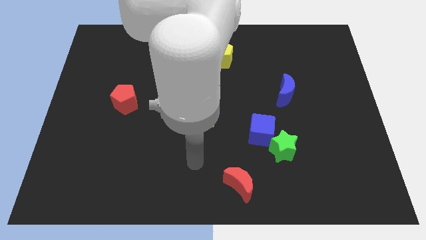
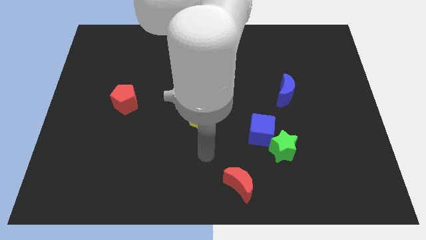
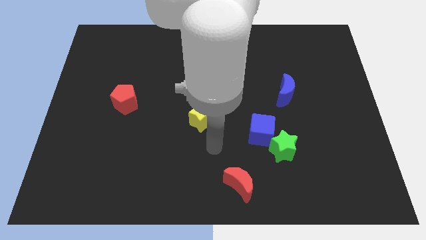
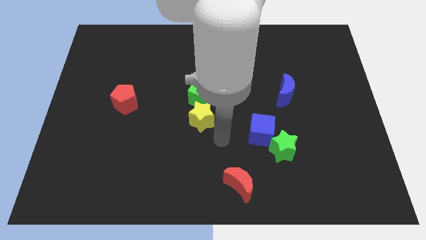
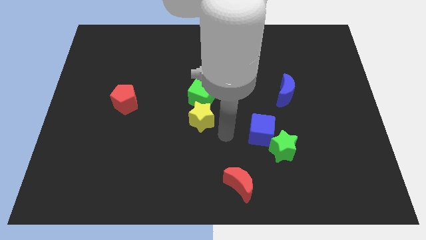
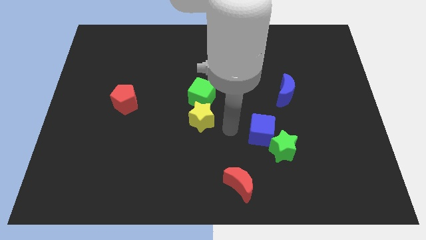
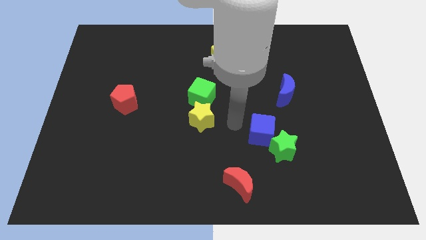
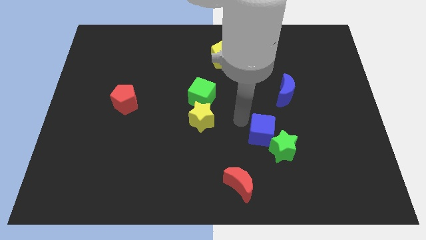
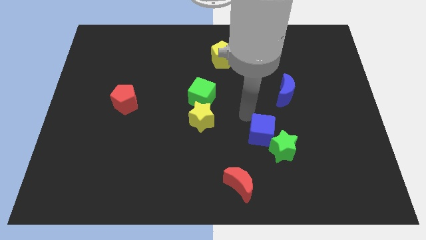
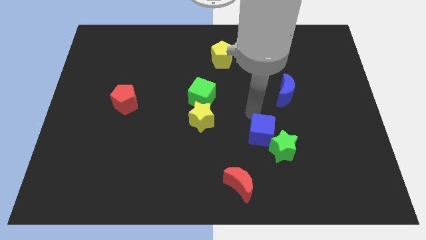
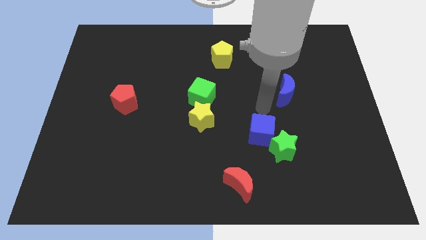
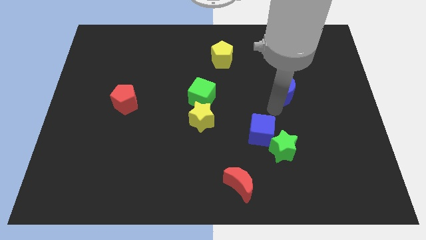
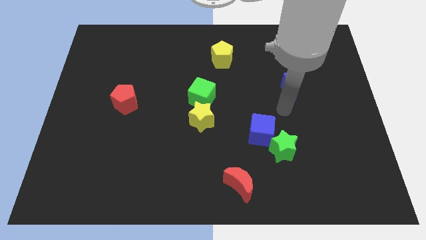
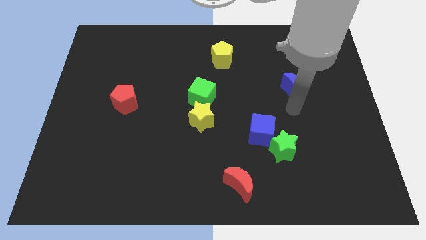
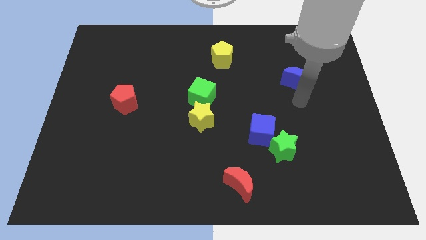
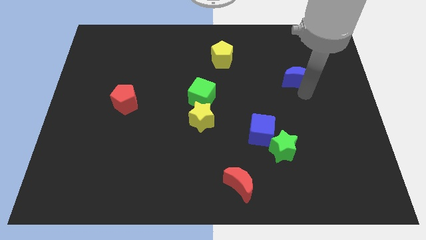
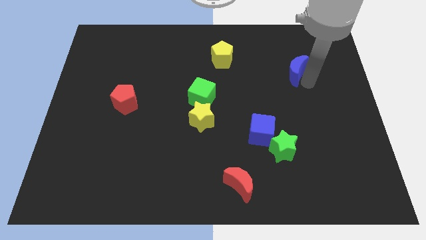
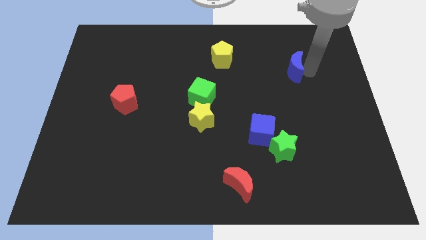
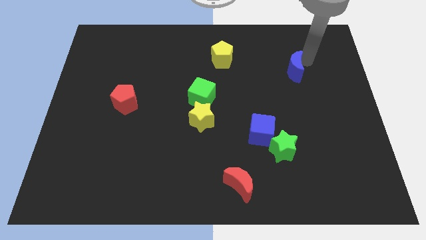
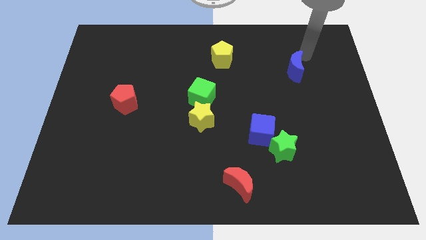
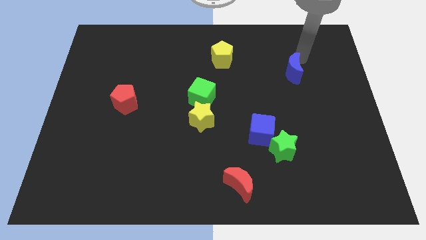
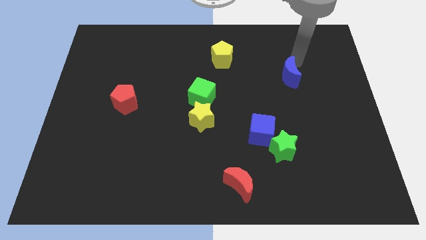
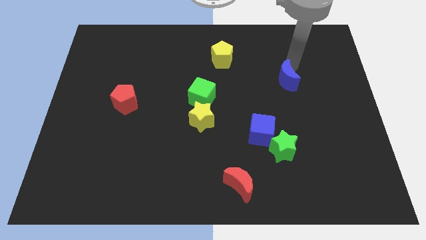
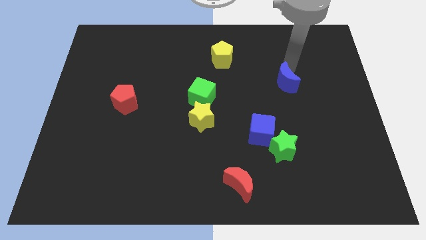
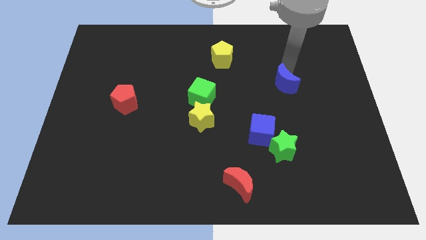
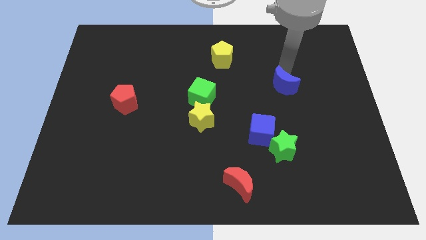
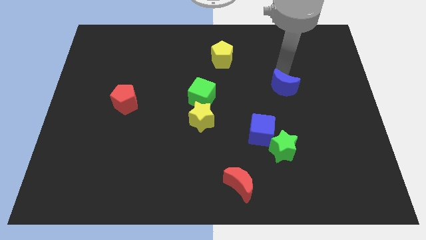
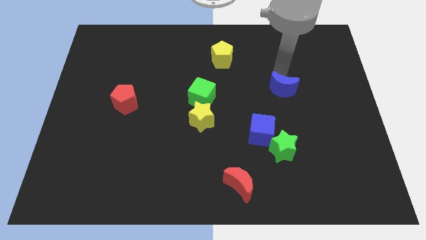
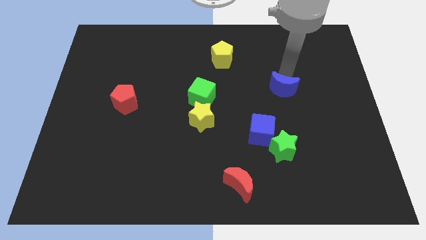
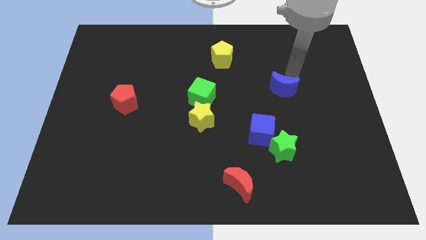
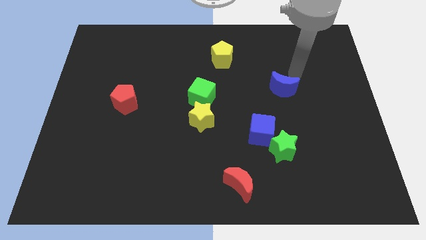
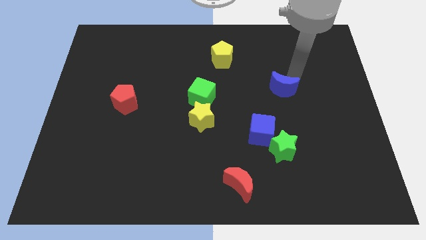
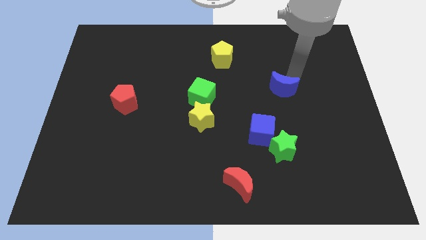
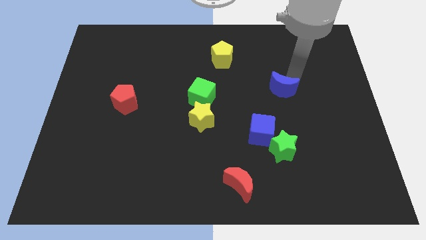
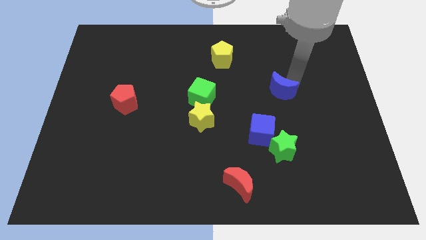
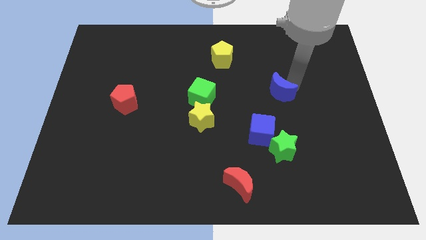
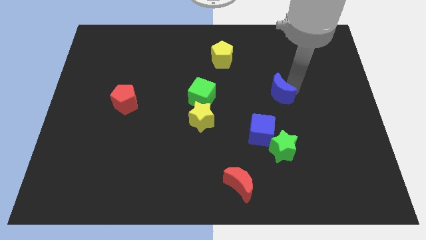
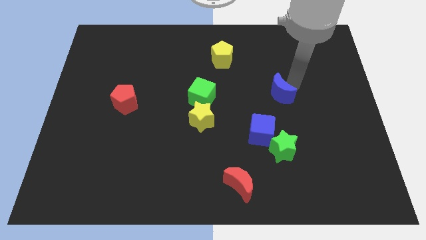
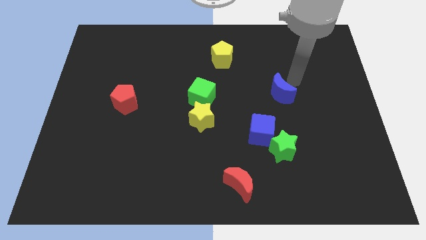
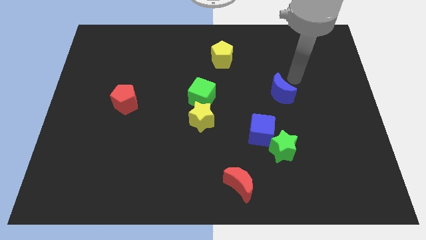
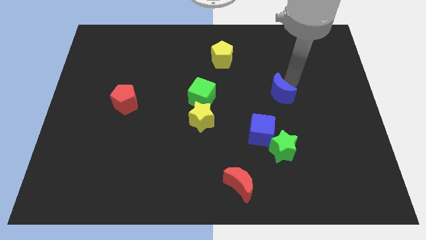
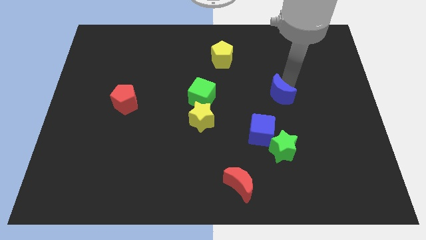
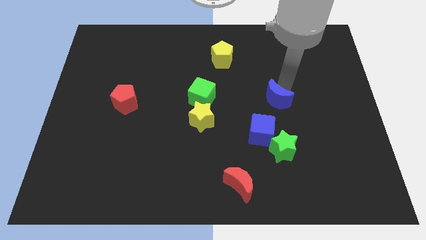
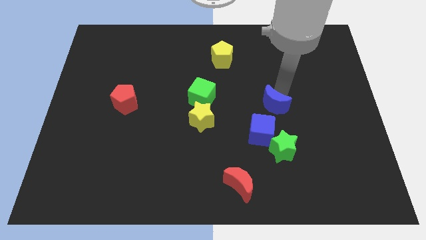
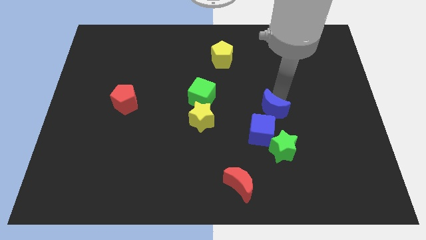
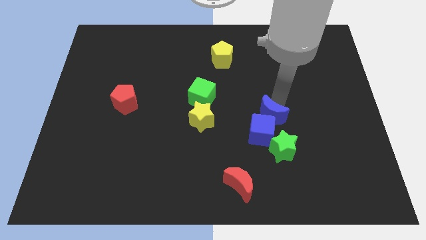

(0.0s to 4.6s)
push the blue moon down and then to the left somewhat

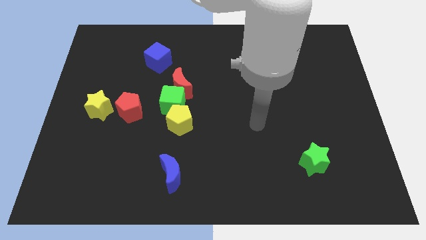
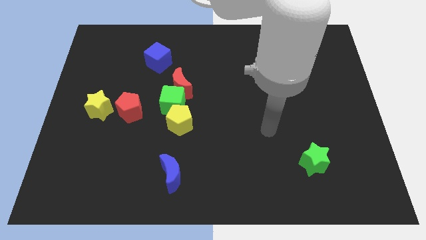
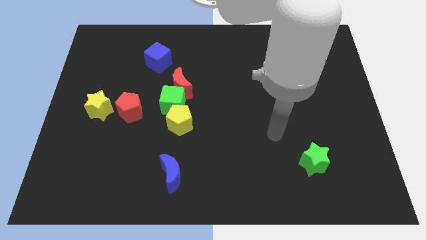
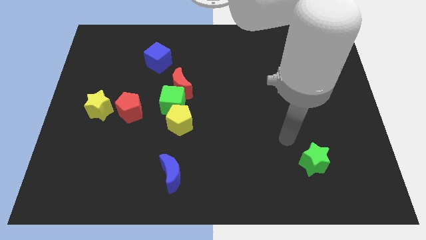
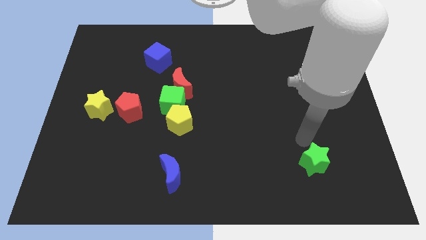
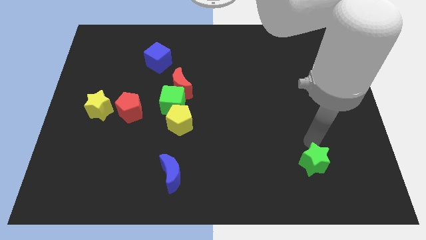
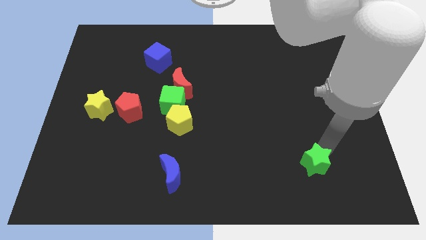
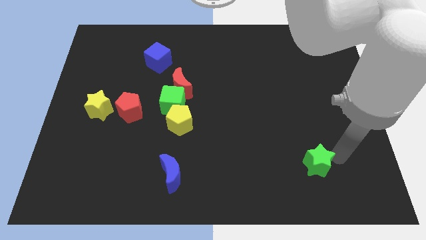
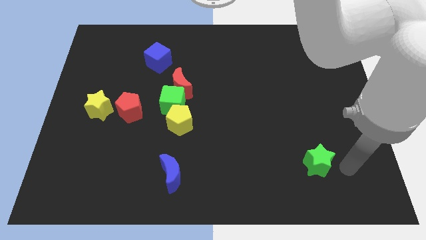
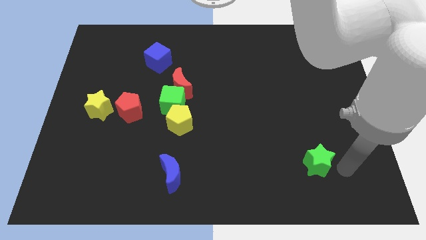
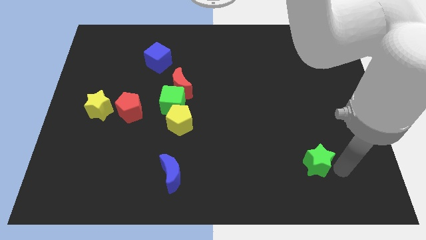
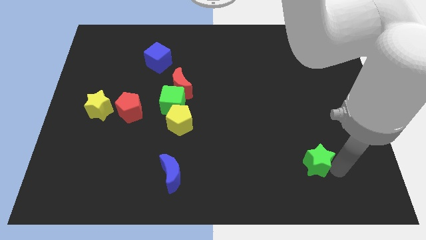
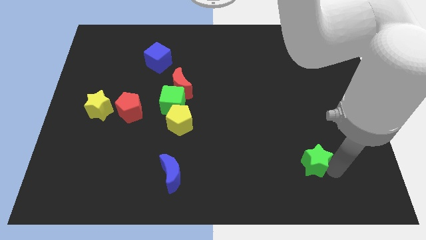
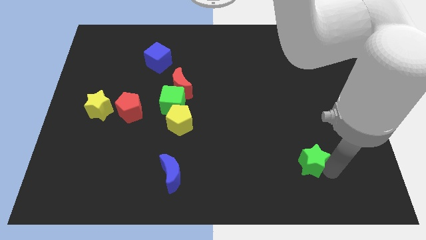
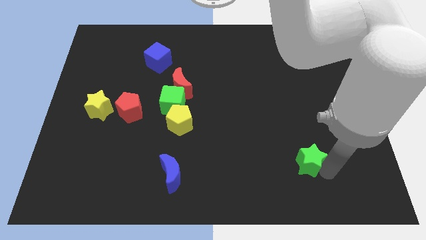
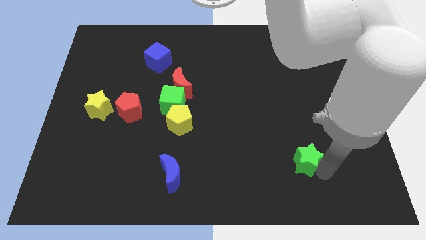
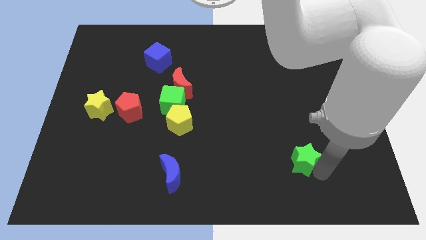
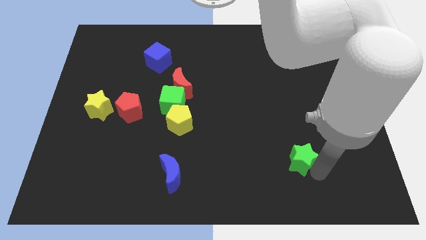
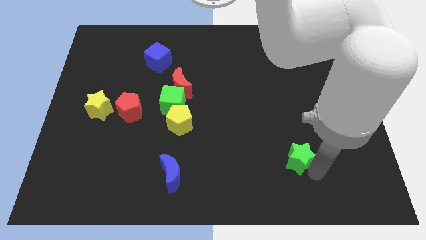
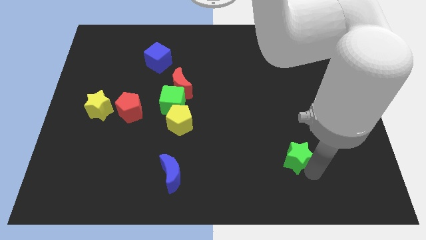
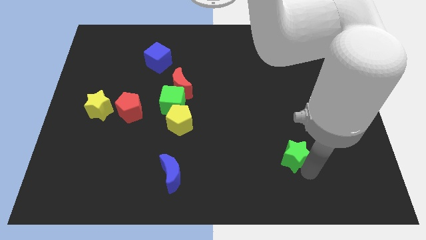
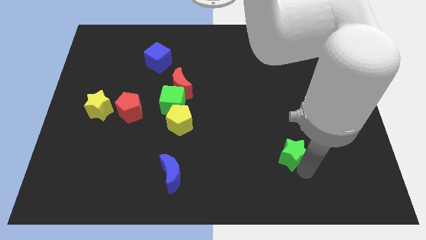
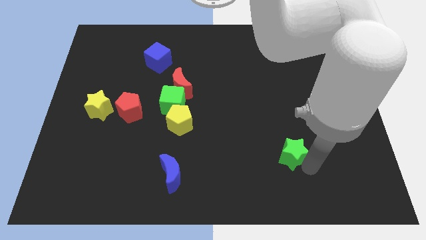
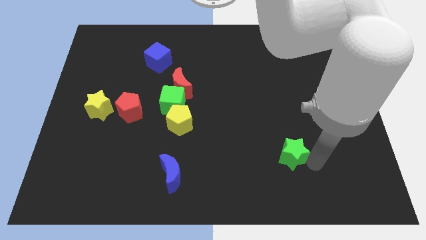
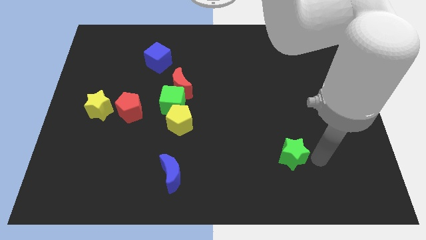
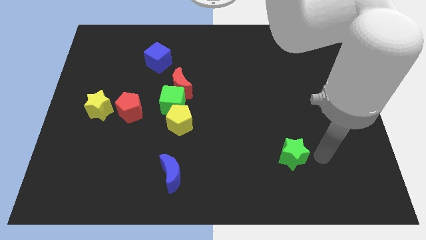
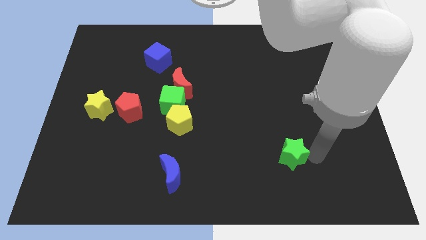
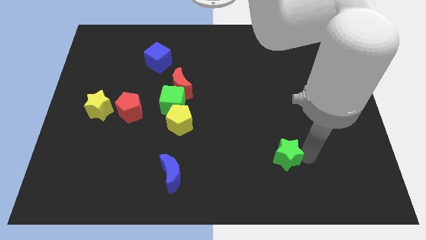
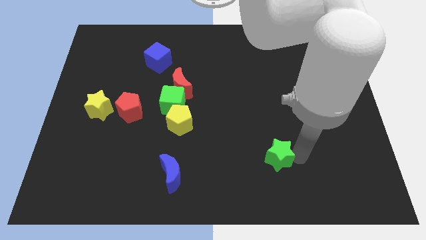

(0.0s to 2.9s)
push the green star to the left a little

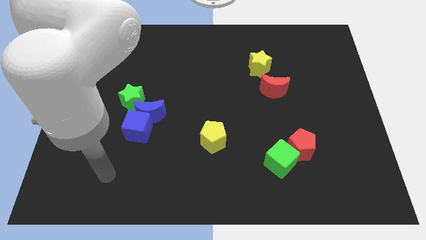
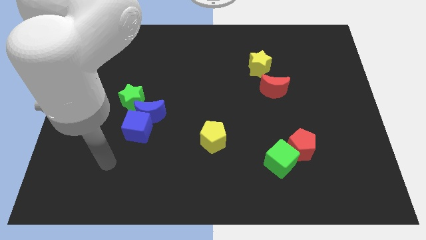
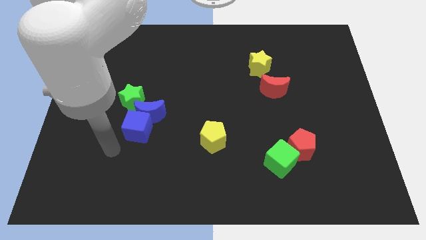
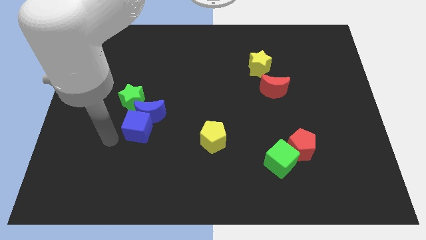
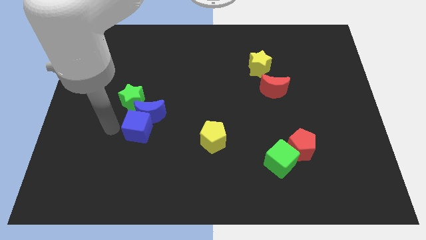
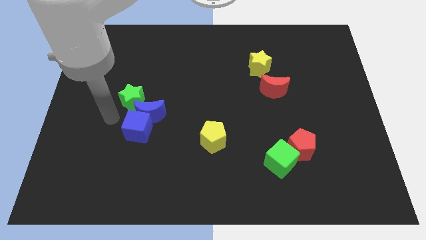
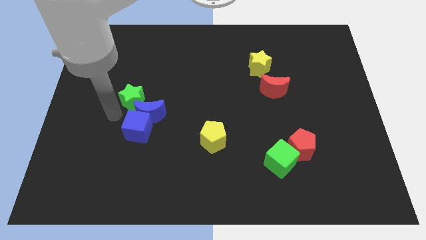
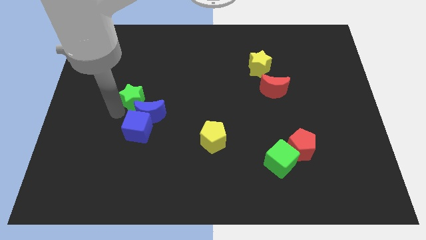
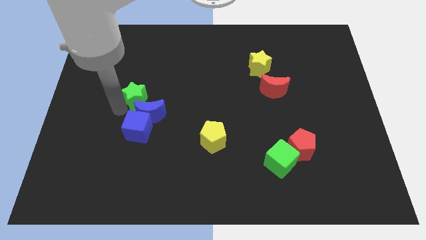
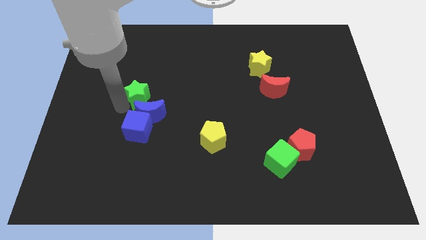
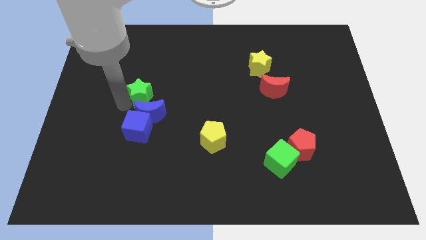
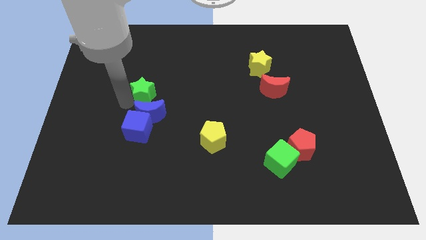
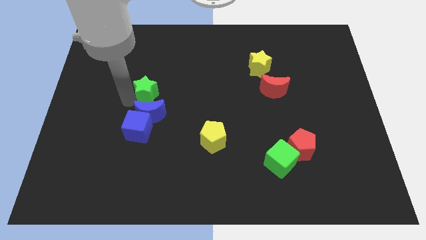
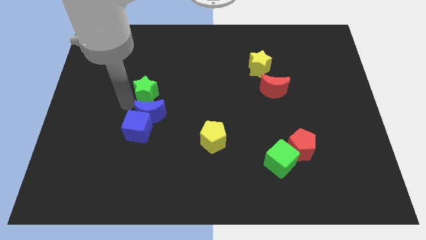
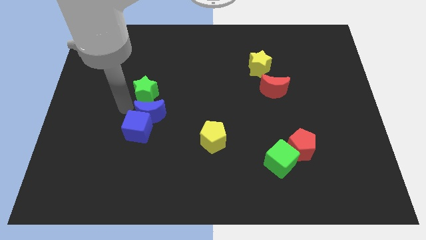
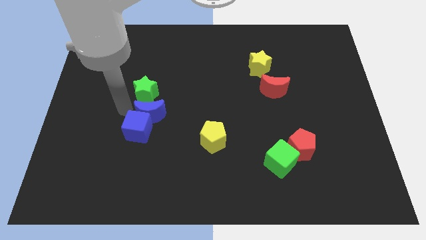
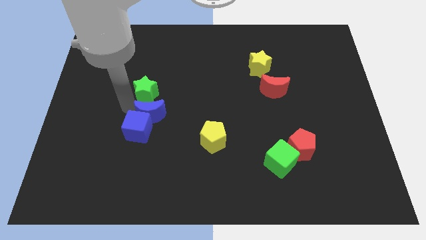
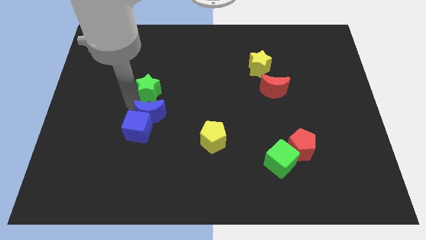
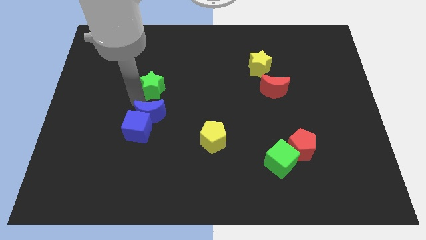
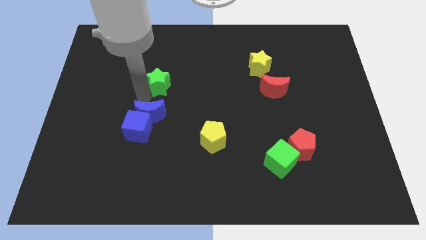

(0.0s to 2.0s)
move the green star up and then to the right slightly
